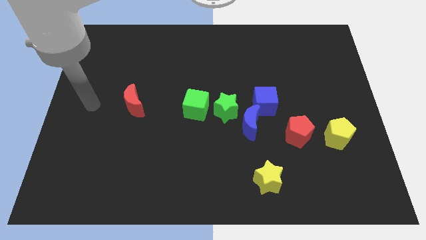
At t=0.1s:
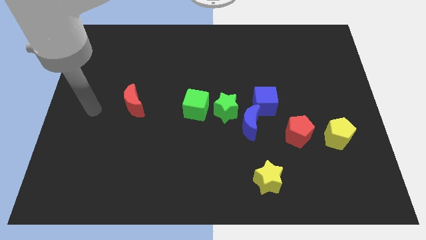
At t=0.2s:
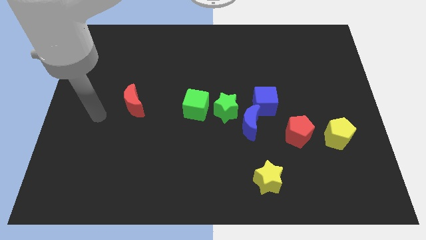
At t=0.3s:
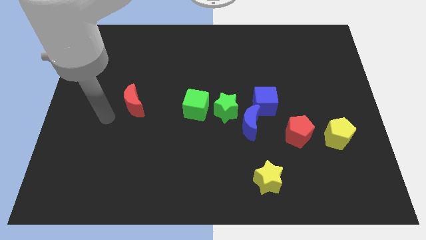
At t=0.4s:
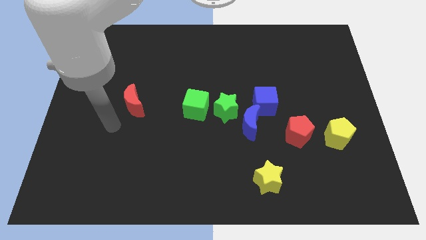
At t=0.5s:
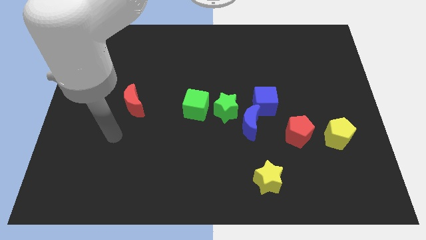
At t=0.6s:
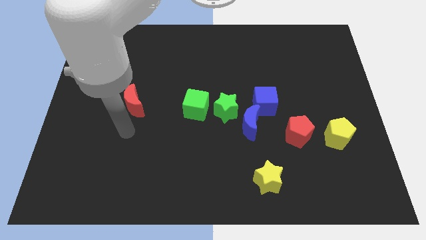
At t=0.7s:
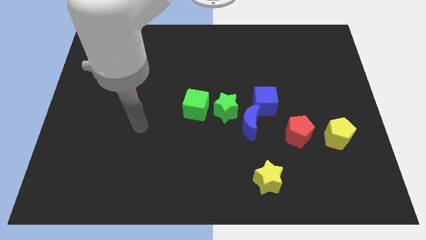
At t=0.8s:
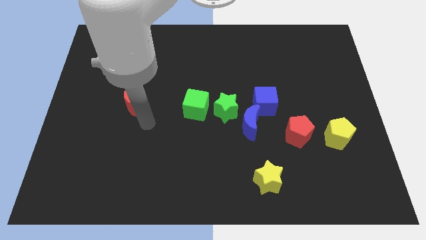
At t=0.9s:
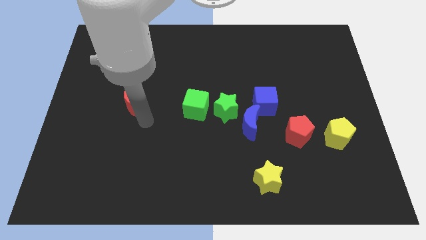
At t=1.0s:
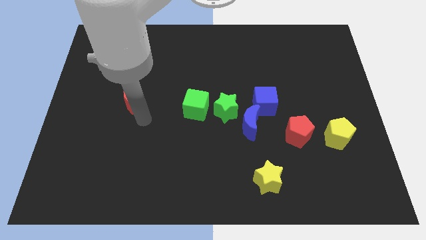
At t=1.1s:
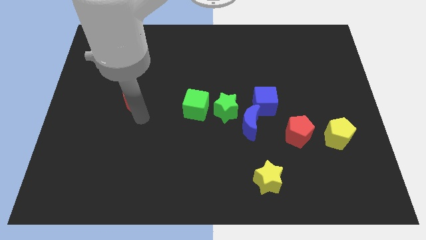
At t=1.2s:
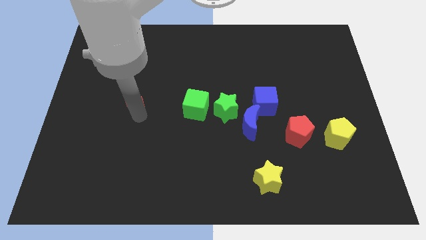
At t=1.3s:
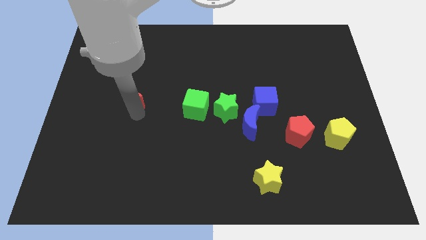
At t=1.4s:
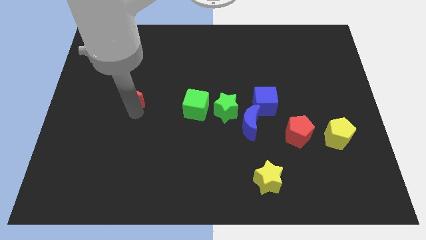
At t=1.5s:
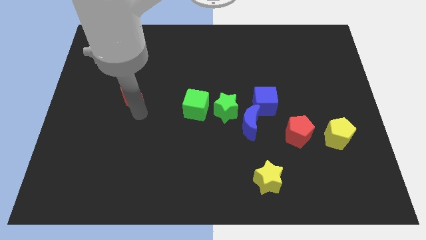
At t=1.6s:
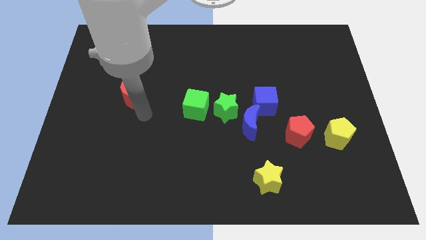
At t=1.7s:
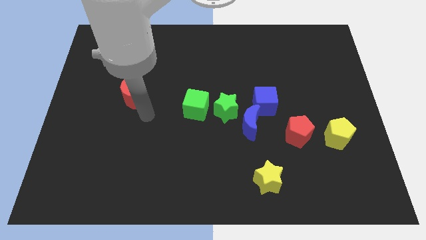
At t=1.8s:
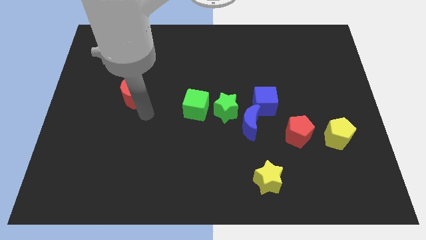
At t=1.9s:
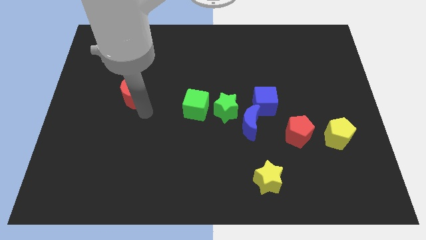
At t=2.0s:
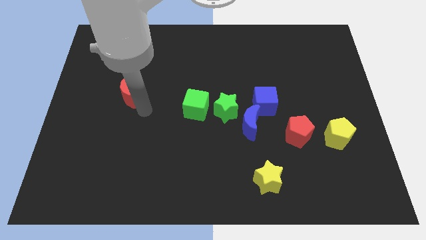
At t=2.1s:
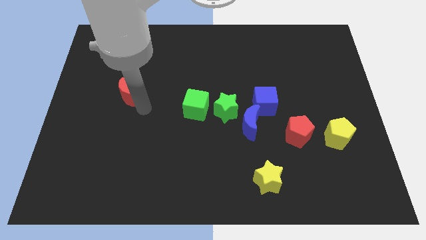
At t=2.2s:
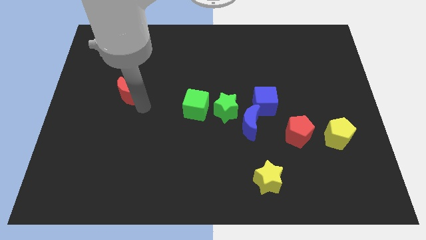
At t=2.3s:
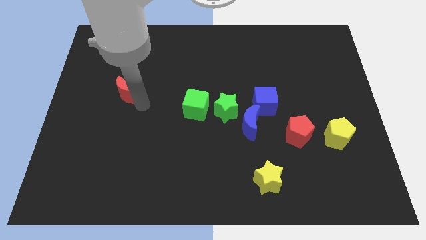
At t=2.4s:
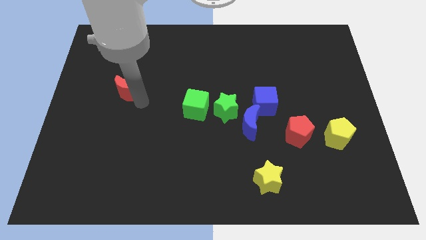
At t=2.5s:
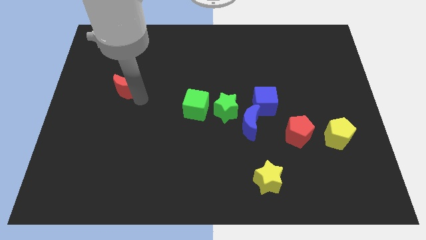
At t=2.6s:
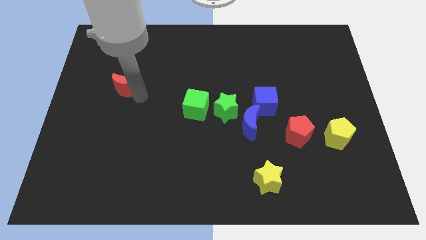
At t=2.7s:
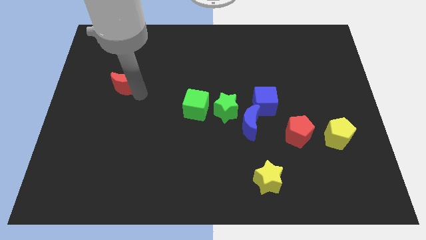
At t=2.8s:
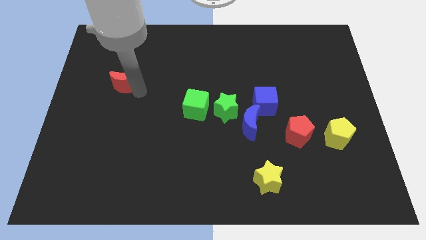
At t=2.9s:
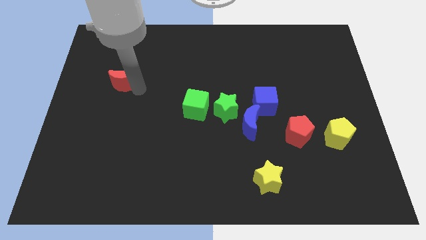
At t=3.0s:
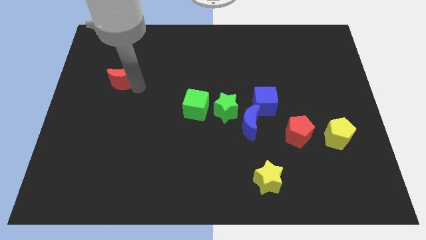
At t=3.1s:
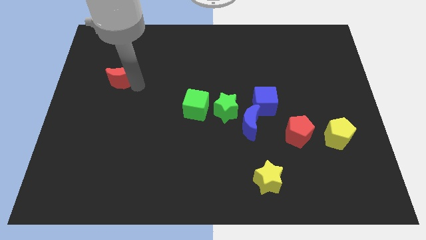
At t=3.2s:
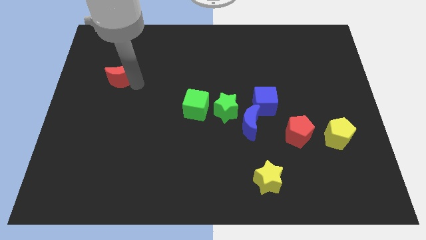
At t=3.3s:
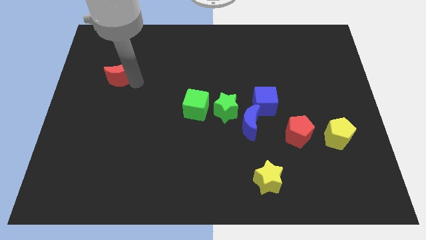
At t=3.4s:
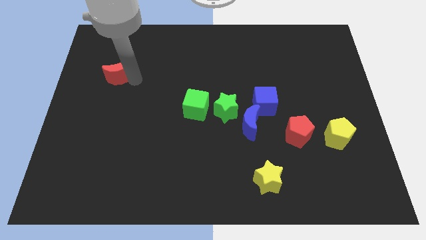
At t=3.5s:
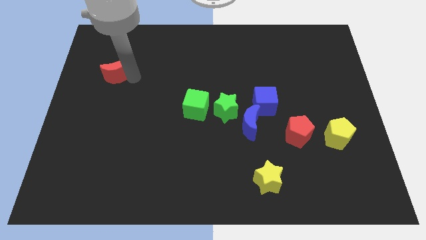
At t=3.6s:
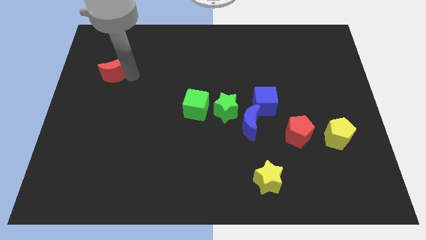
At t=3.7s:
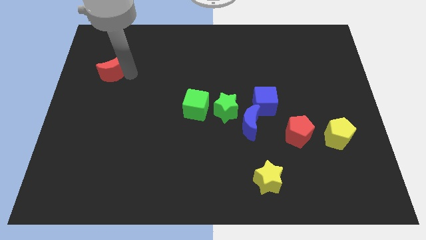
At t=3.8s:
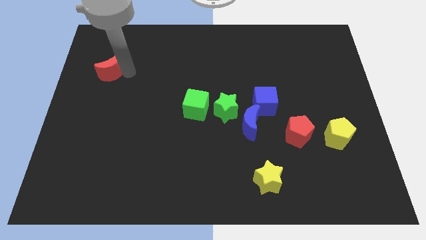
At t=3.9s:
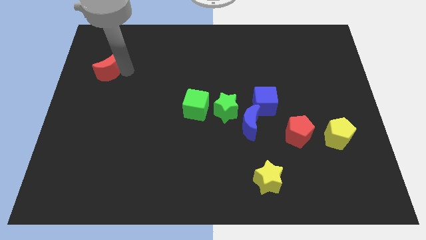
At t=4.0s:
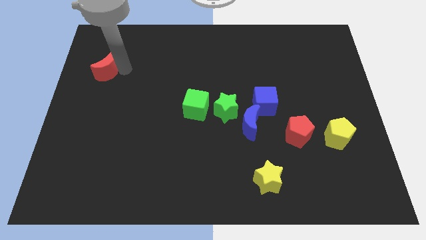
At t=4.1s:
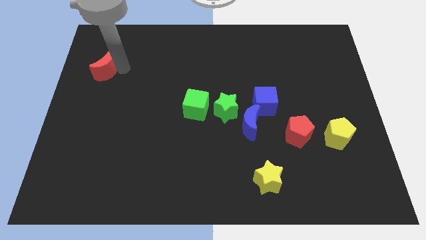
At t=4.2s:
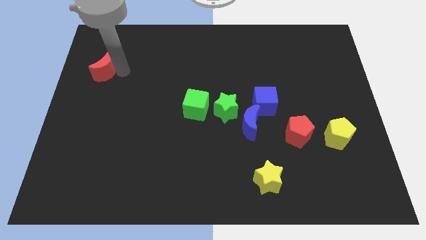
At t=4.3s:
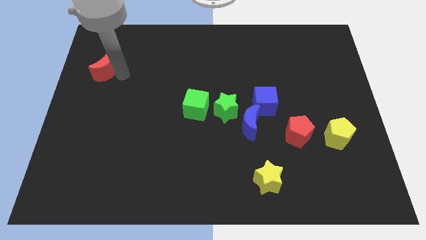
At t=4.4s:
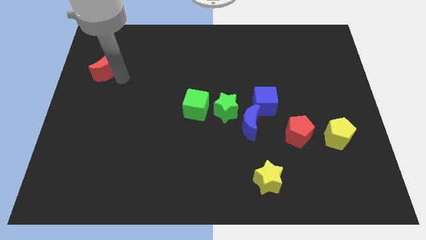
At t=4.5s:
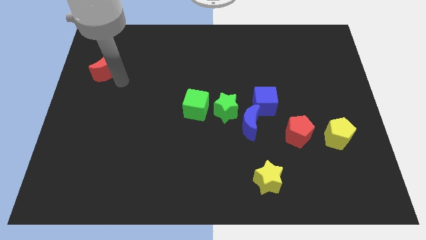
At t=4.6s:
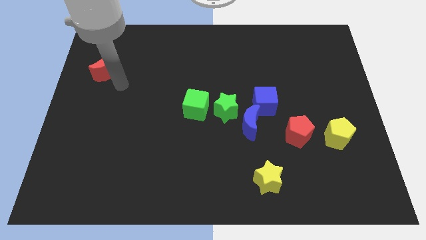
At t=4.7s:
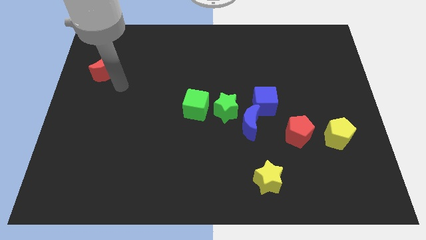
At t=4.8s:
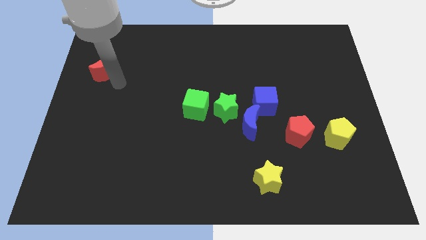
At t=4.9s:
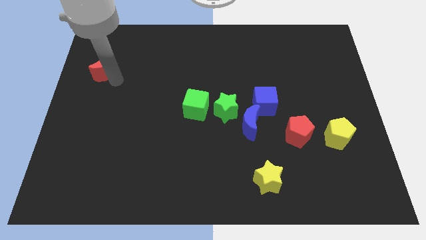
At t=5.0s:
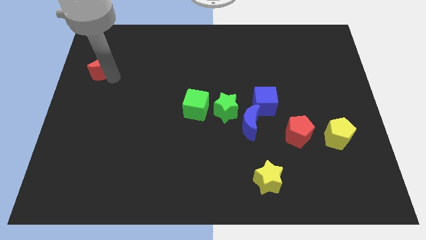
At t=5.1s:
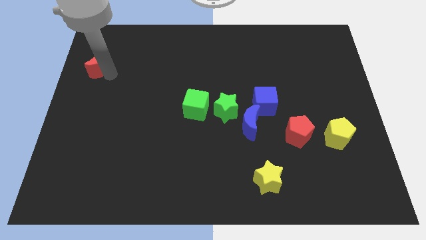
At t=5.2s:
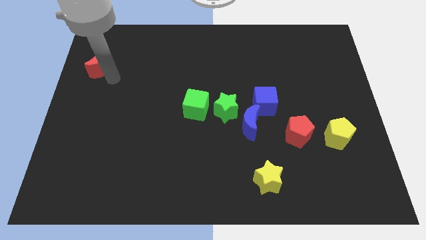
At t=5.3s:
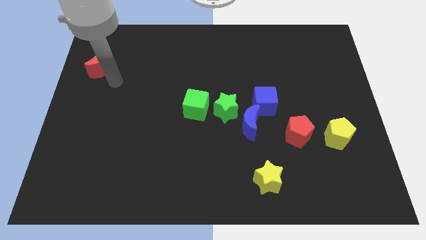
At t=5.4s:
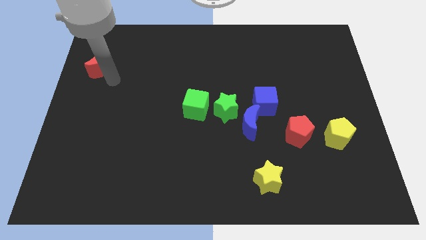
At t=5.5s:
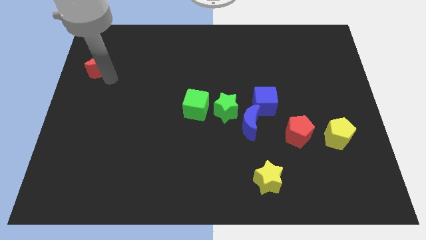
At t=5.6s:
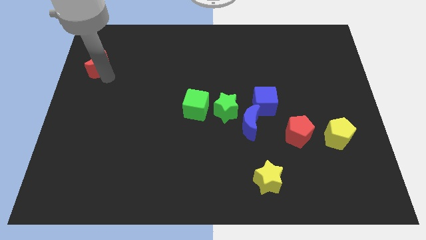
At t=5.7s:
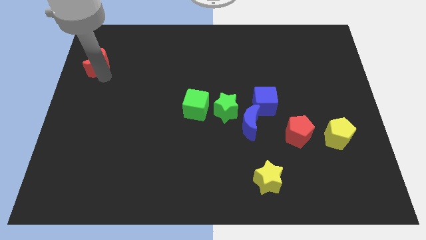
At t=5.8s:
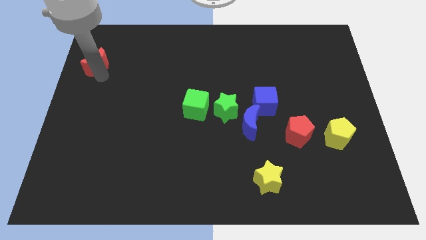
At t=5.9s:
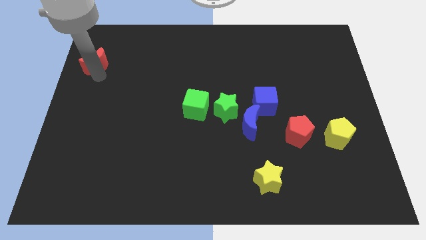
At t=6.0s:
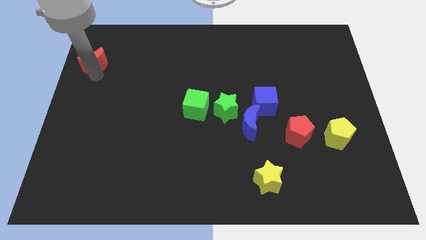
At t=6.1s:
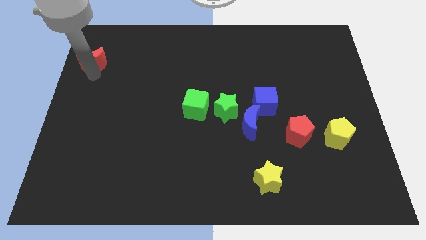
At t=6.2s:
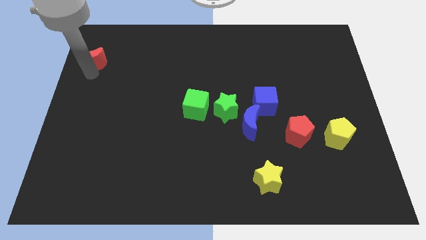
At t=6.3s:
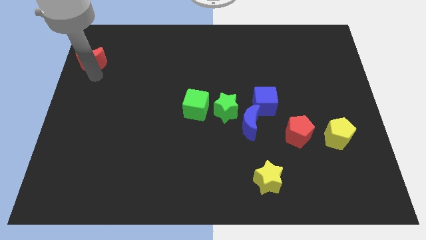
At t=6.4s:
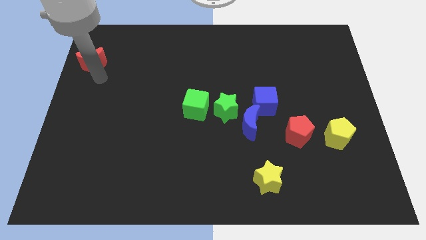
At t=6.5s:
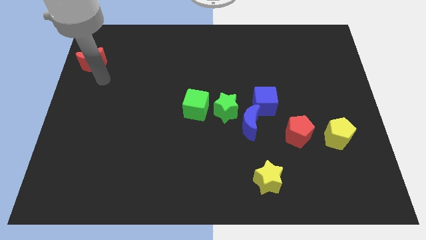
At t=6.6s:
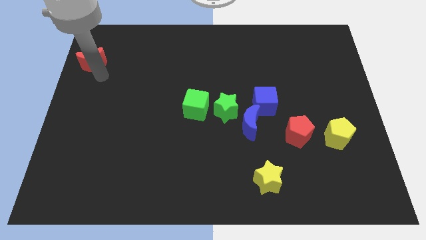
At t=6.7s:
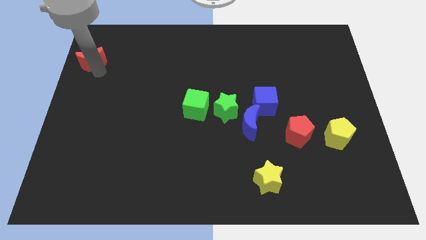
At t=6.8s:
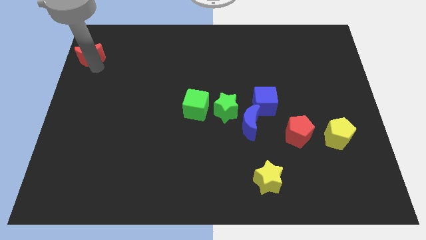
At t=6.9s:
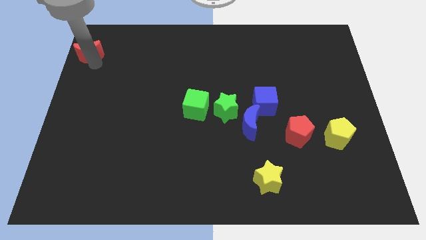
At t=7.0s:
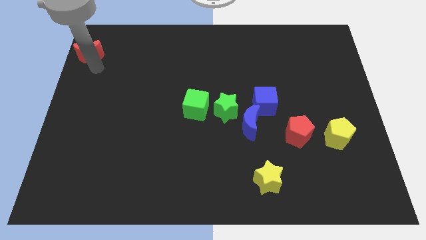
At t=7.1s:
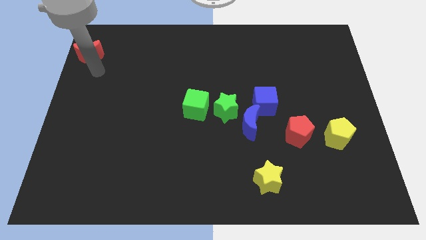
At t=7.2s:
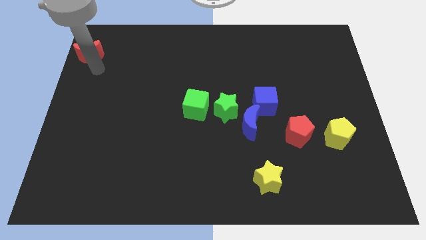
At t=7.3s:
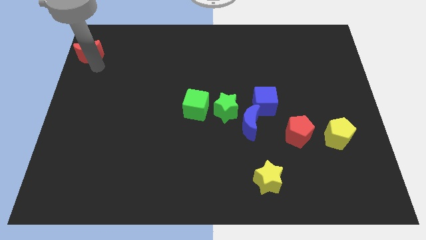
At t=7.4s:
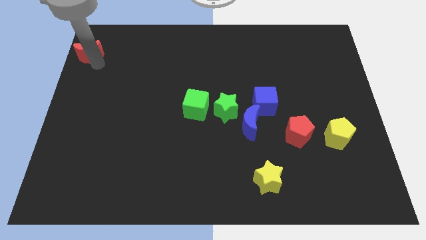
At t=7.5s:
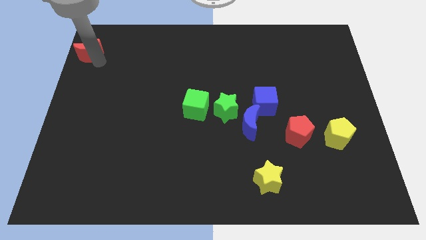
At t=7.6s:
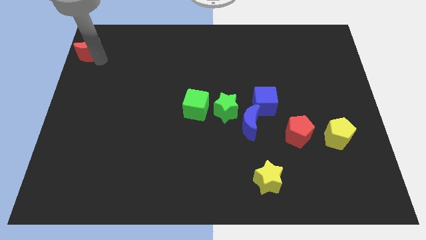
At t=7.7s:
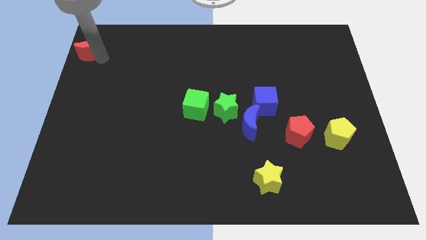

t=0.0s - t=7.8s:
push the red moon to the top left
